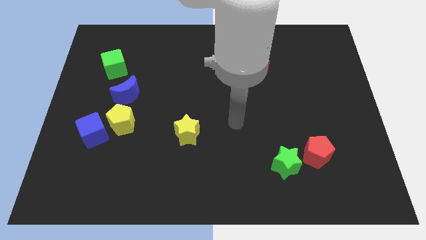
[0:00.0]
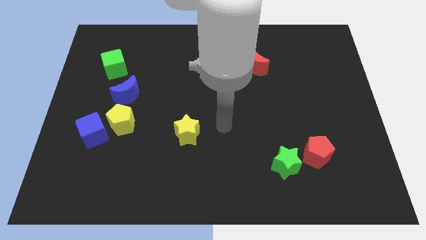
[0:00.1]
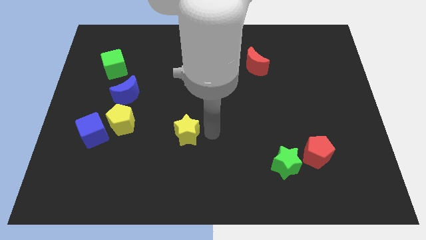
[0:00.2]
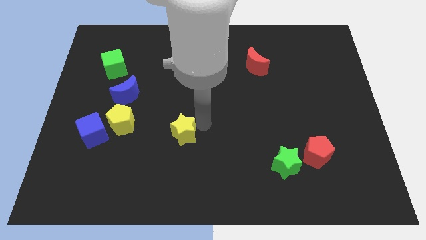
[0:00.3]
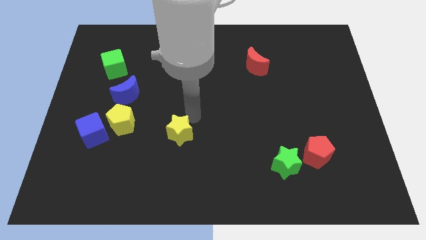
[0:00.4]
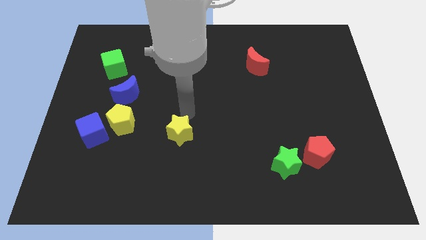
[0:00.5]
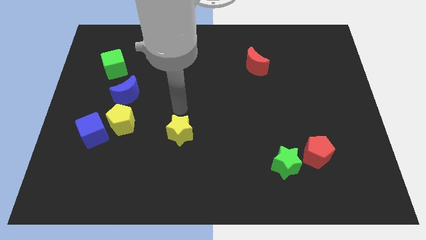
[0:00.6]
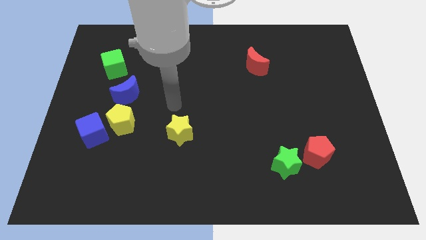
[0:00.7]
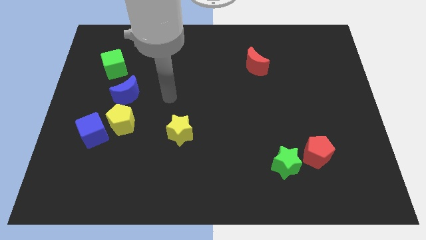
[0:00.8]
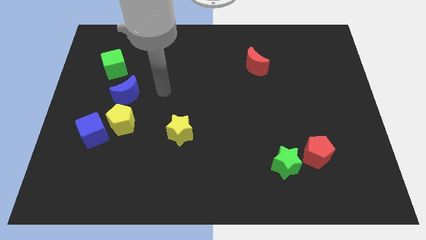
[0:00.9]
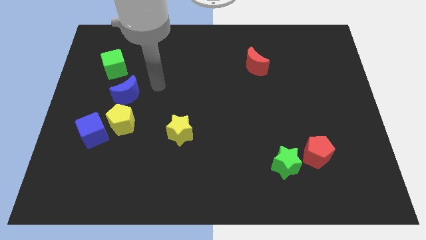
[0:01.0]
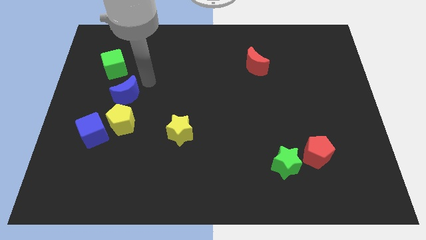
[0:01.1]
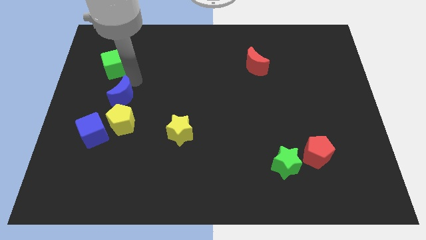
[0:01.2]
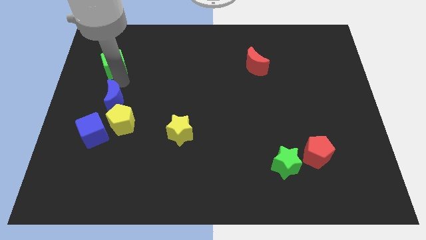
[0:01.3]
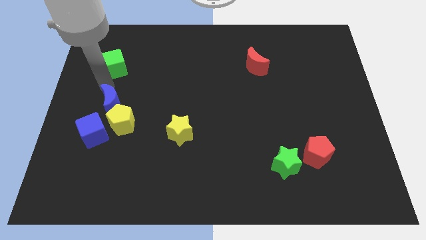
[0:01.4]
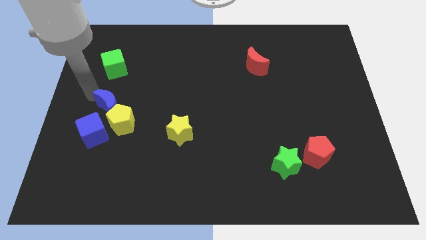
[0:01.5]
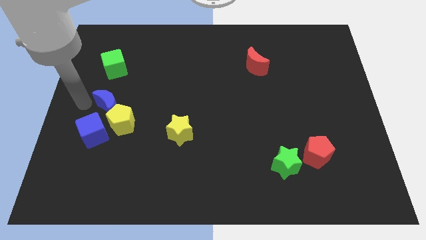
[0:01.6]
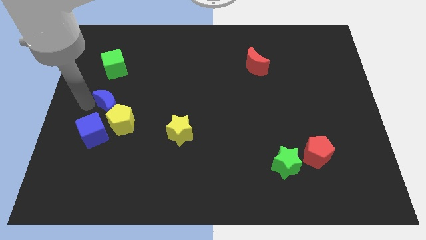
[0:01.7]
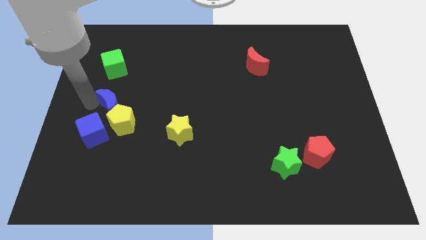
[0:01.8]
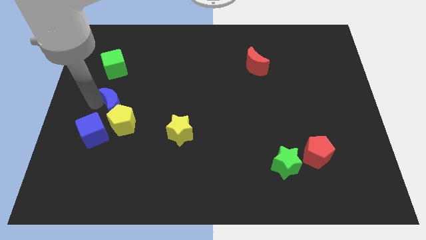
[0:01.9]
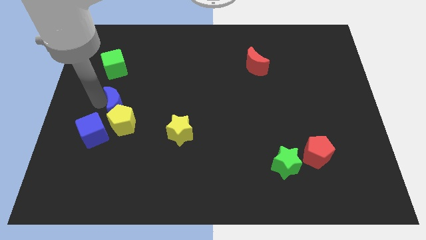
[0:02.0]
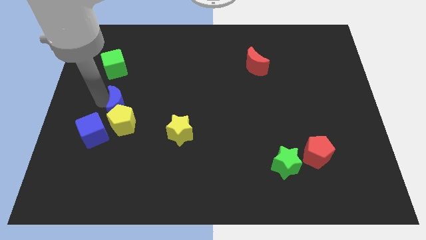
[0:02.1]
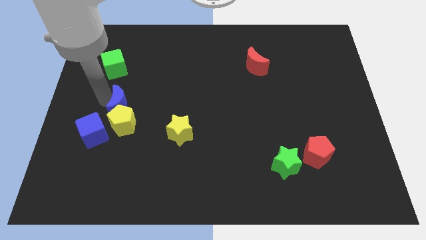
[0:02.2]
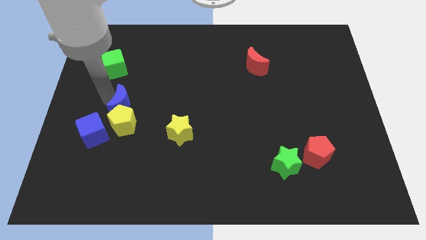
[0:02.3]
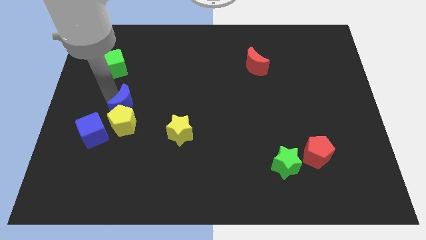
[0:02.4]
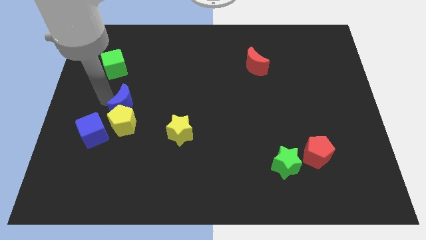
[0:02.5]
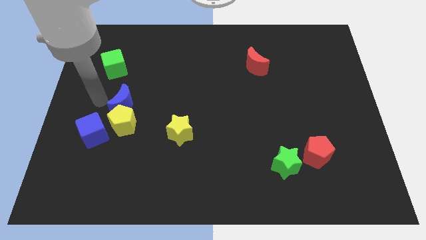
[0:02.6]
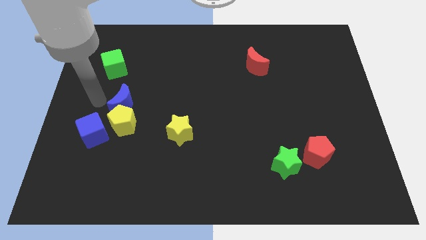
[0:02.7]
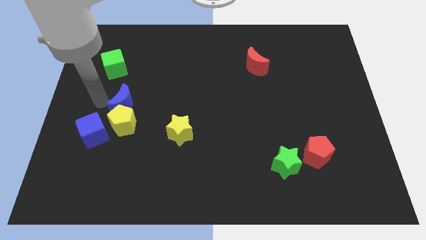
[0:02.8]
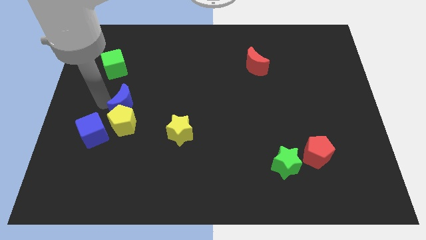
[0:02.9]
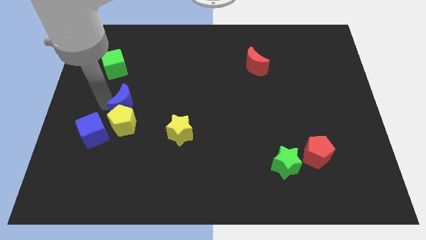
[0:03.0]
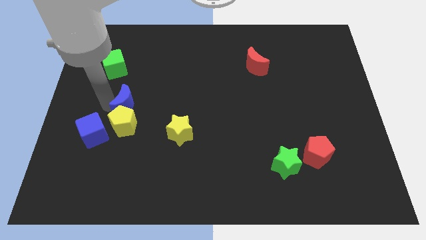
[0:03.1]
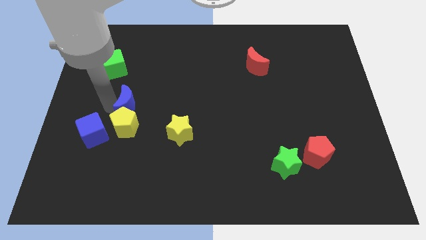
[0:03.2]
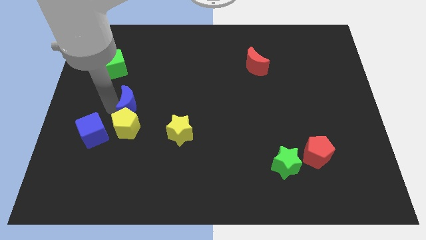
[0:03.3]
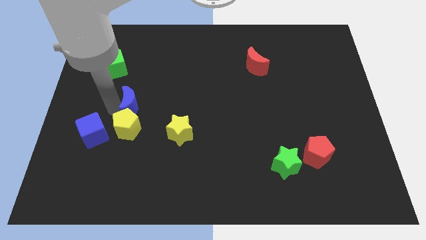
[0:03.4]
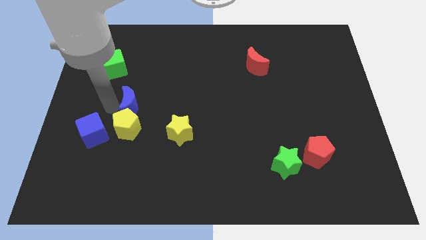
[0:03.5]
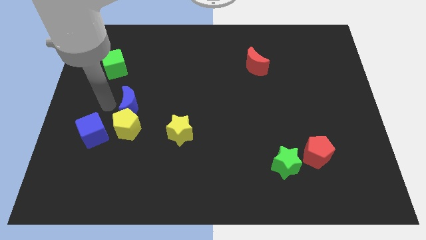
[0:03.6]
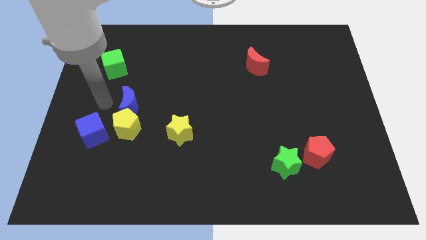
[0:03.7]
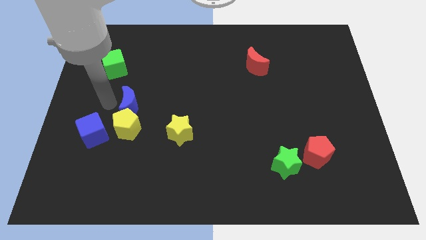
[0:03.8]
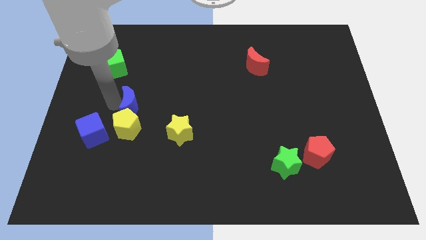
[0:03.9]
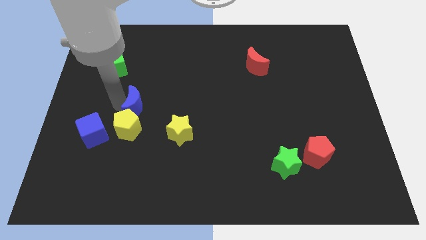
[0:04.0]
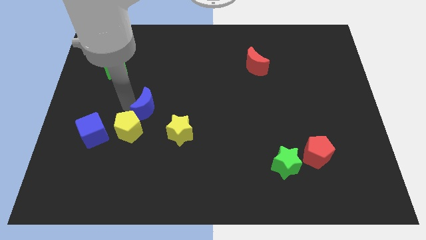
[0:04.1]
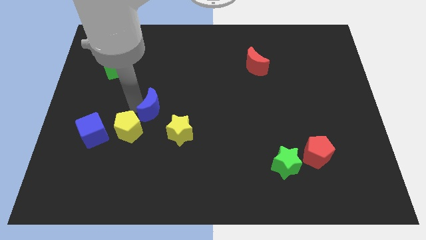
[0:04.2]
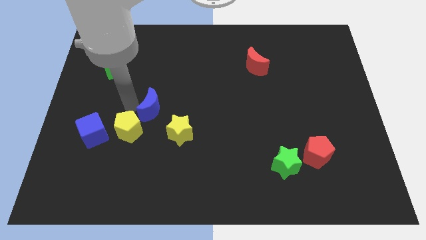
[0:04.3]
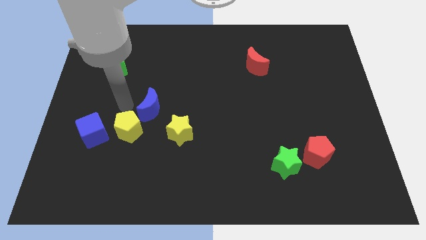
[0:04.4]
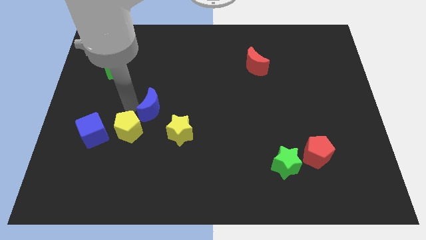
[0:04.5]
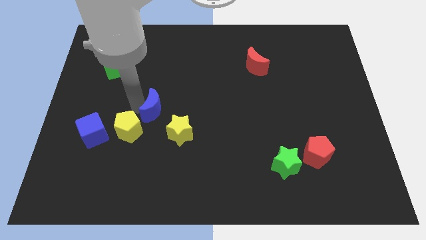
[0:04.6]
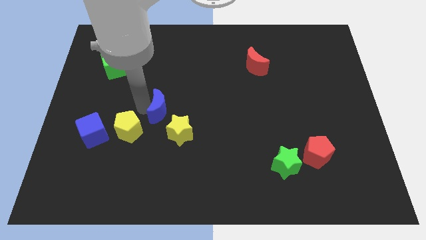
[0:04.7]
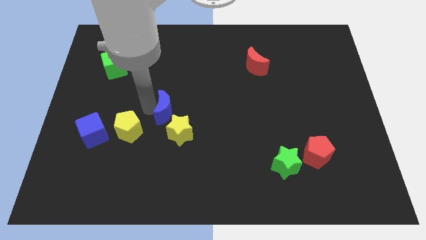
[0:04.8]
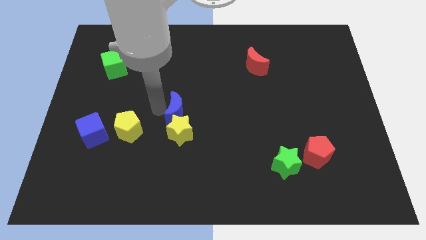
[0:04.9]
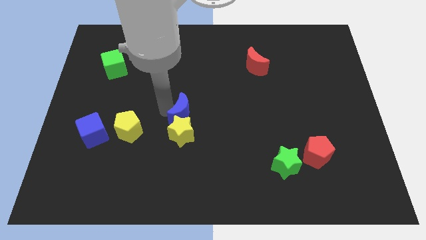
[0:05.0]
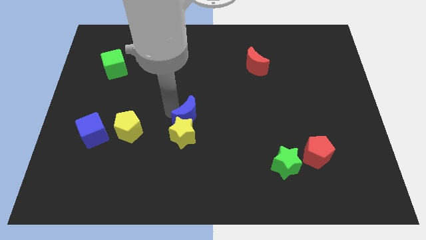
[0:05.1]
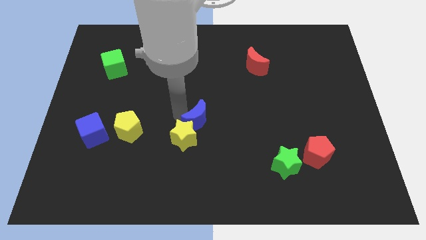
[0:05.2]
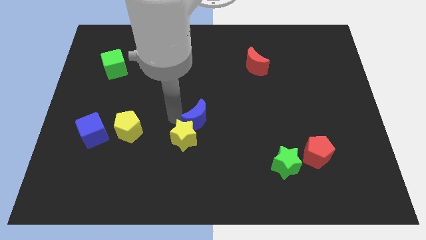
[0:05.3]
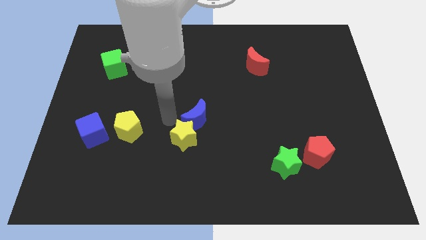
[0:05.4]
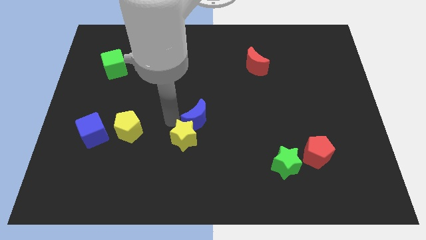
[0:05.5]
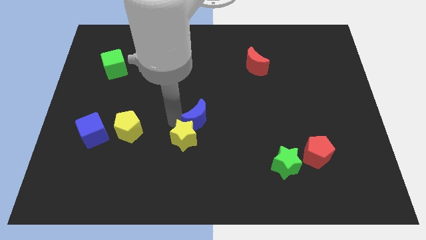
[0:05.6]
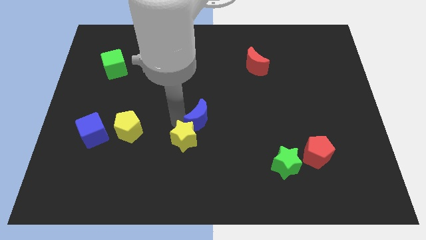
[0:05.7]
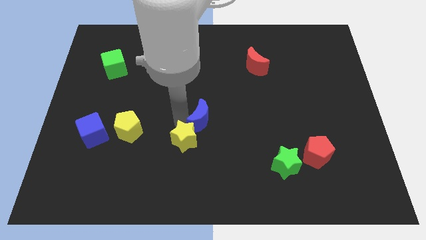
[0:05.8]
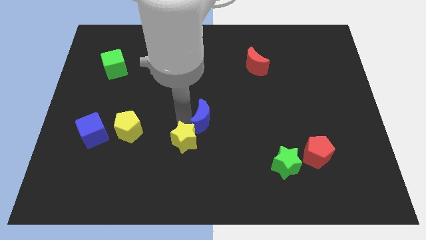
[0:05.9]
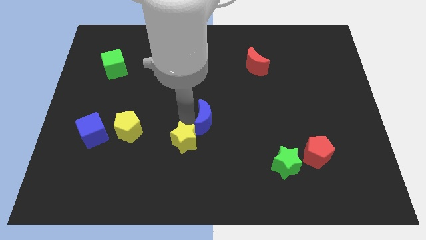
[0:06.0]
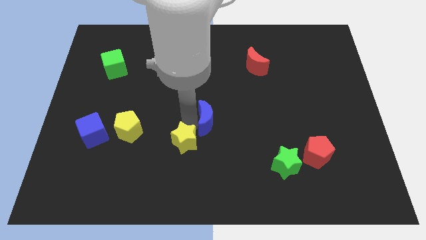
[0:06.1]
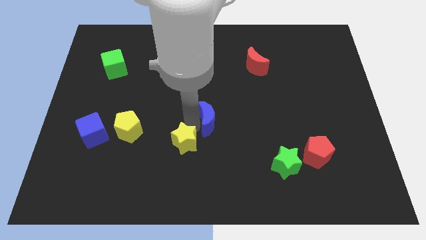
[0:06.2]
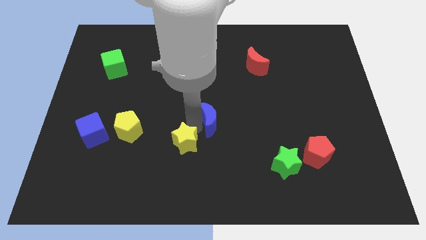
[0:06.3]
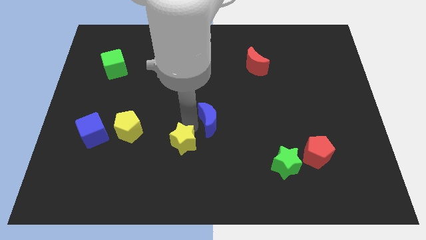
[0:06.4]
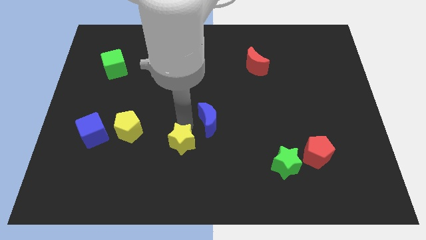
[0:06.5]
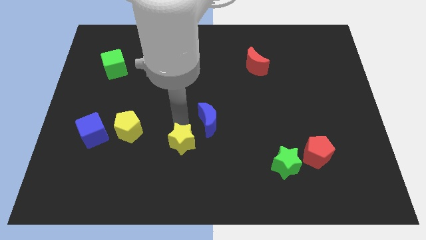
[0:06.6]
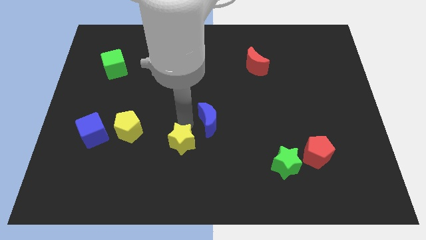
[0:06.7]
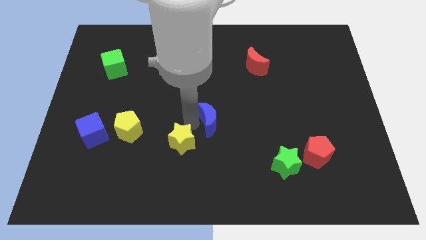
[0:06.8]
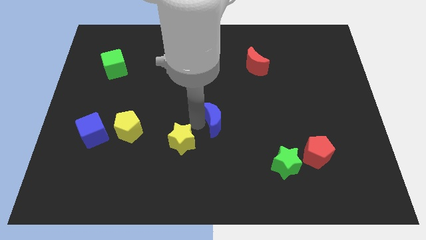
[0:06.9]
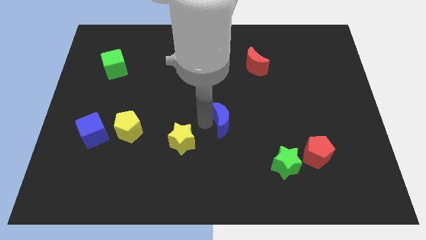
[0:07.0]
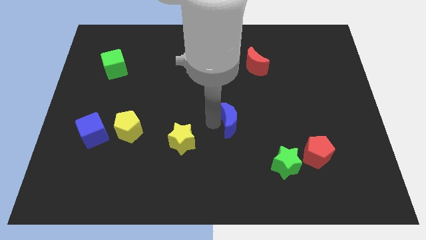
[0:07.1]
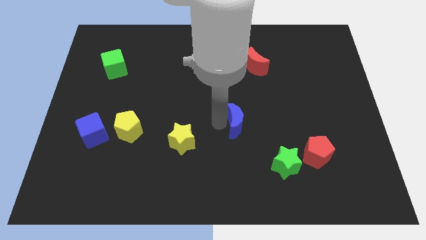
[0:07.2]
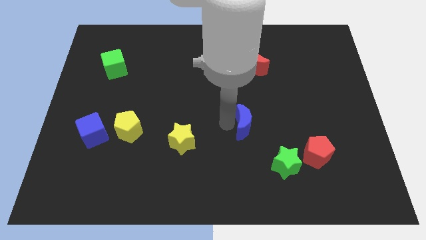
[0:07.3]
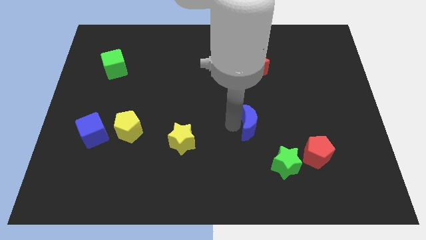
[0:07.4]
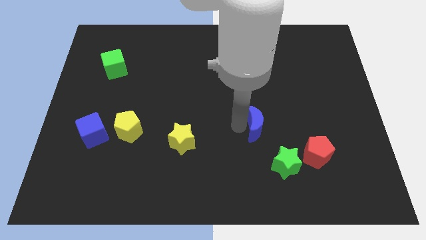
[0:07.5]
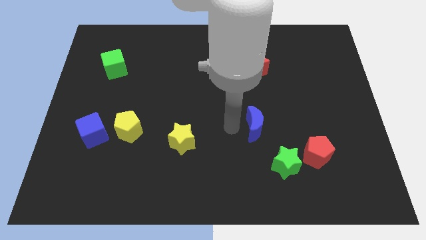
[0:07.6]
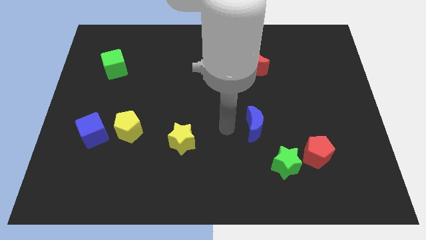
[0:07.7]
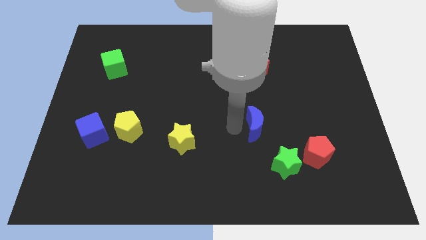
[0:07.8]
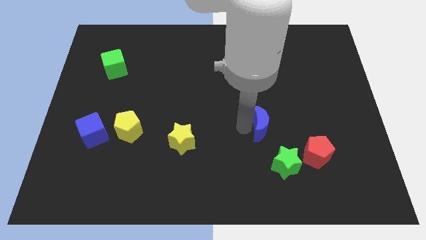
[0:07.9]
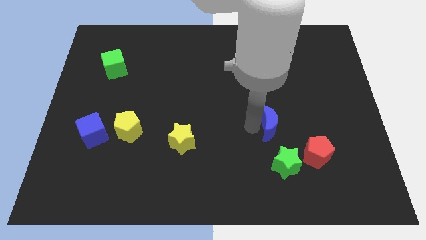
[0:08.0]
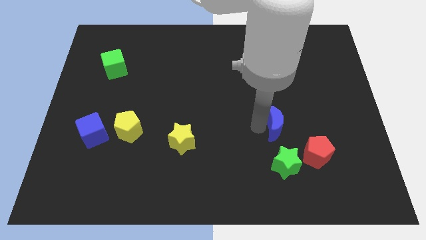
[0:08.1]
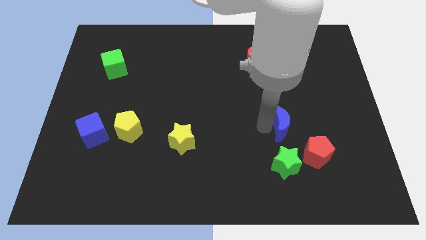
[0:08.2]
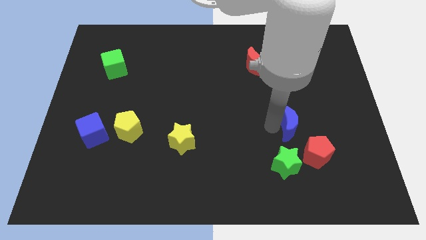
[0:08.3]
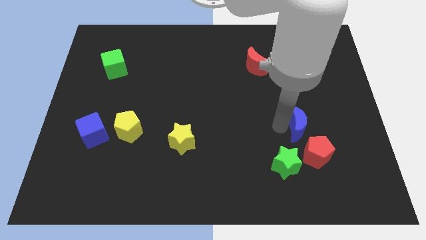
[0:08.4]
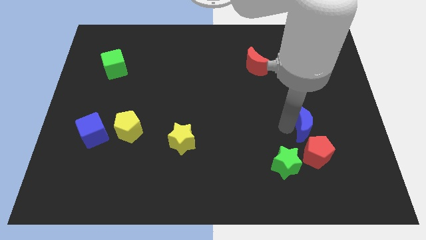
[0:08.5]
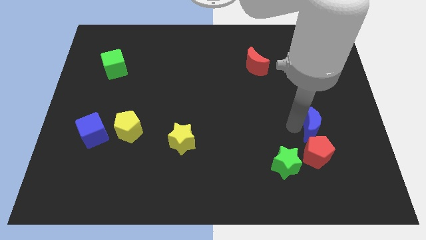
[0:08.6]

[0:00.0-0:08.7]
move the blue moon diagonally up and to the right of the red pentagon
